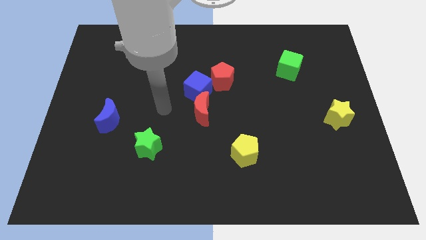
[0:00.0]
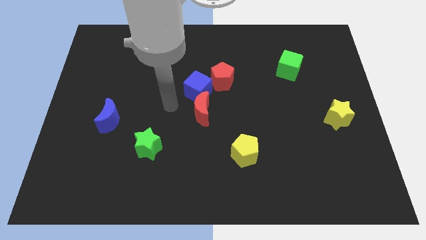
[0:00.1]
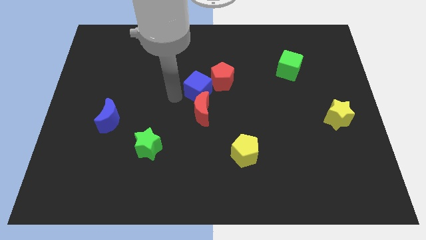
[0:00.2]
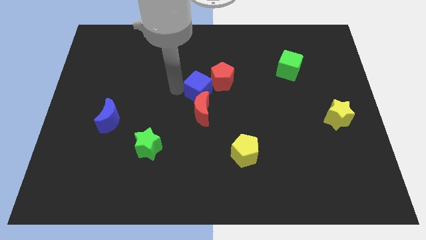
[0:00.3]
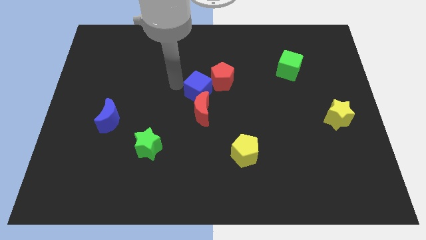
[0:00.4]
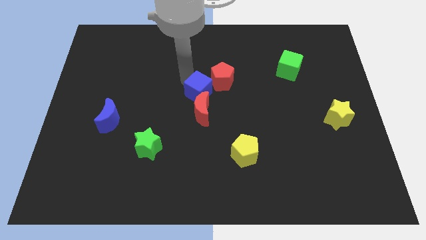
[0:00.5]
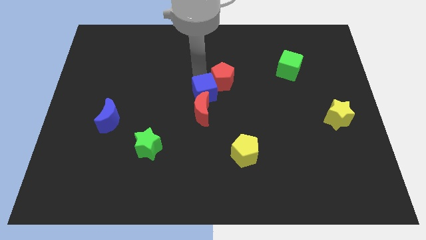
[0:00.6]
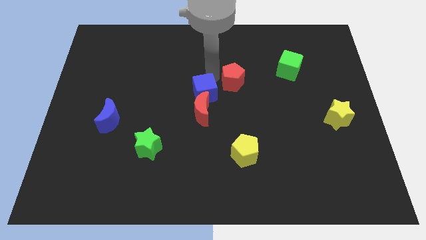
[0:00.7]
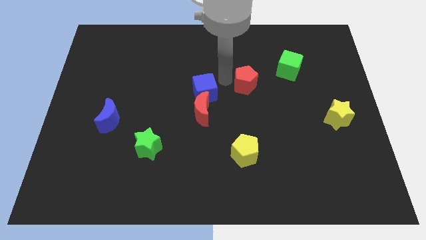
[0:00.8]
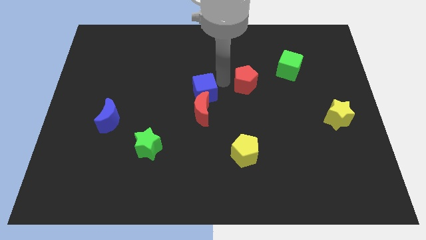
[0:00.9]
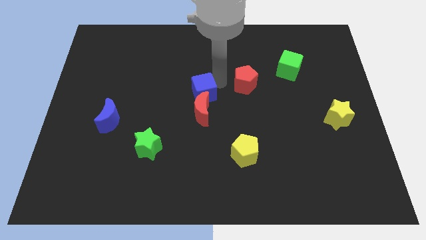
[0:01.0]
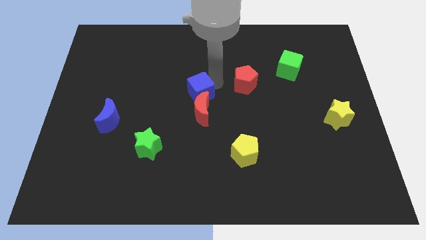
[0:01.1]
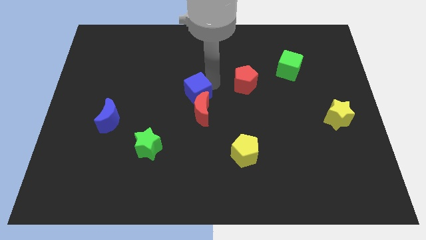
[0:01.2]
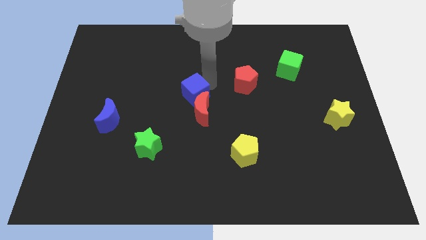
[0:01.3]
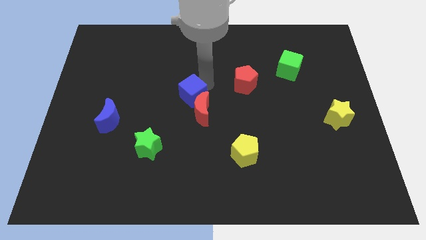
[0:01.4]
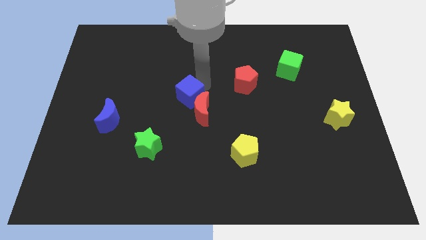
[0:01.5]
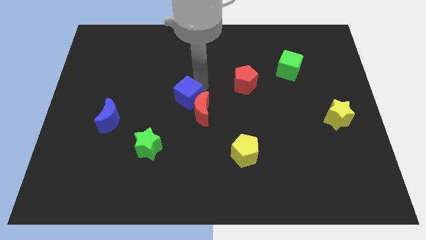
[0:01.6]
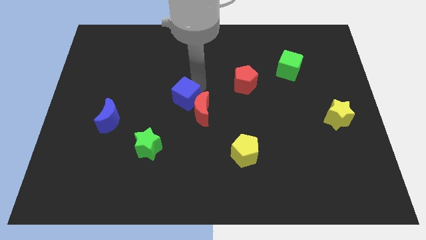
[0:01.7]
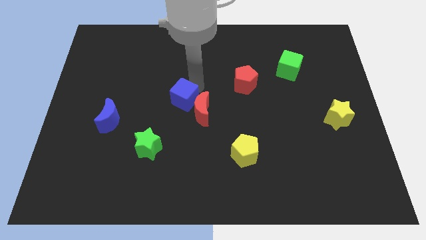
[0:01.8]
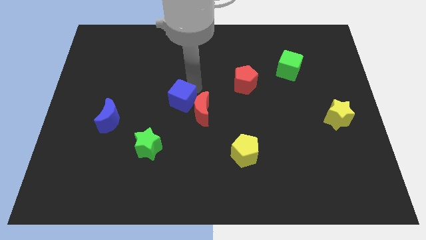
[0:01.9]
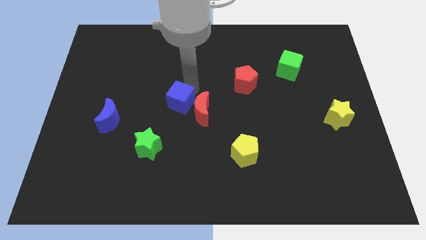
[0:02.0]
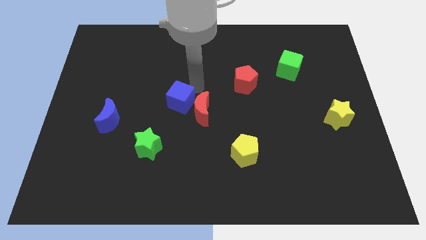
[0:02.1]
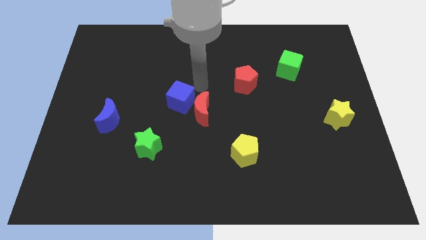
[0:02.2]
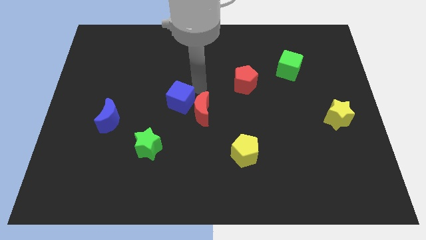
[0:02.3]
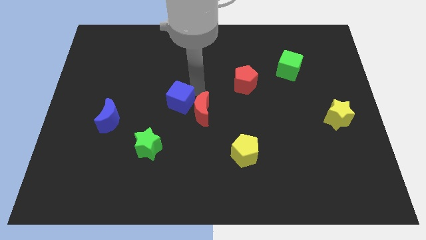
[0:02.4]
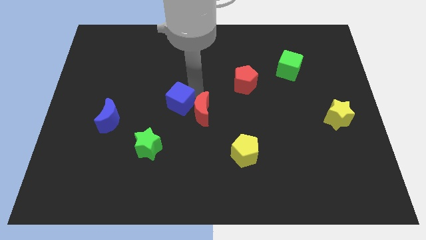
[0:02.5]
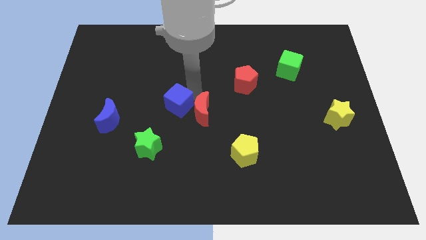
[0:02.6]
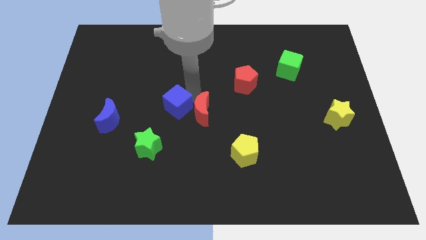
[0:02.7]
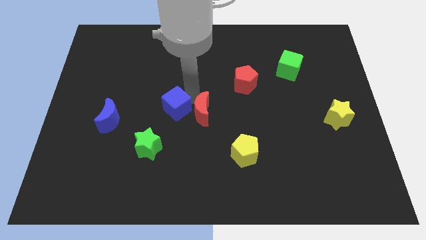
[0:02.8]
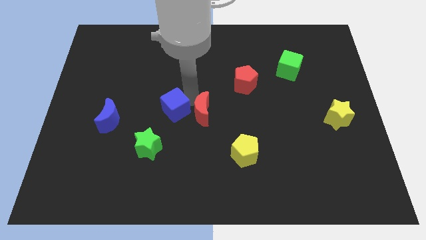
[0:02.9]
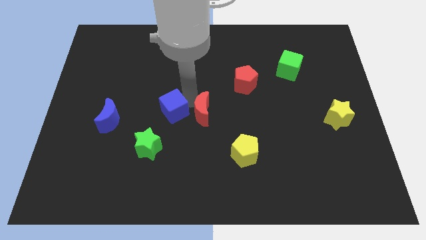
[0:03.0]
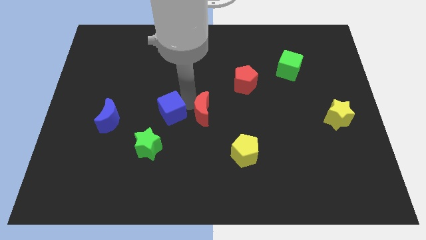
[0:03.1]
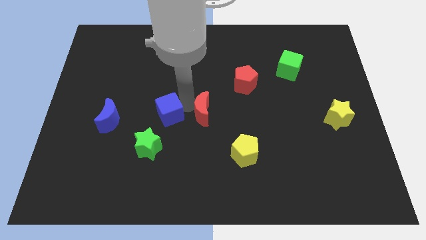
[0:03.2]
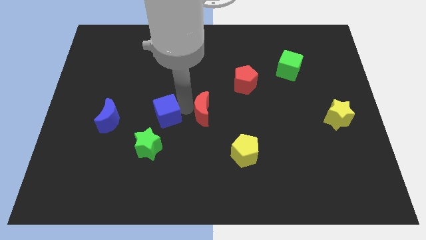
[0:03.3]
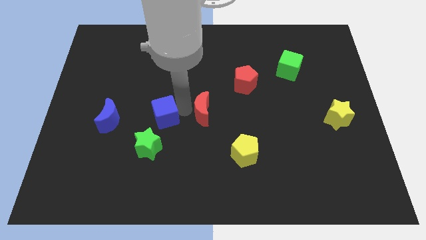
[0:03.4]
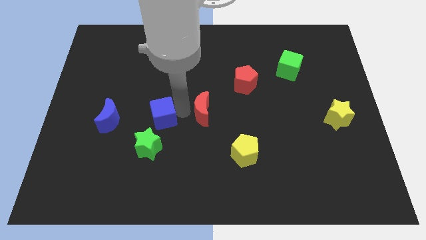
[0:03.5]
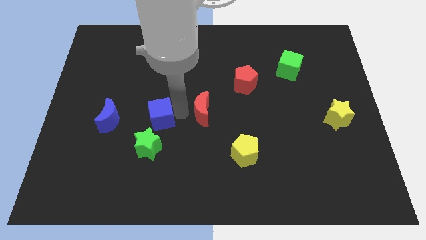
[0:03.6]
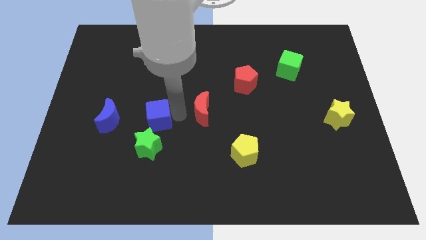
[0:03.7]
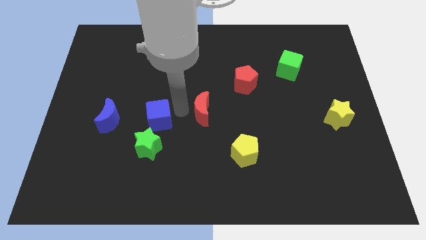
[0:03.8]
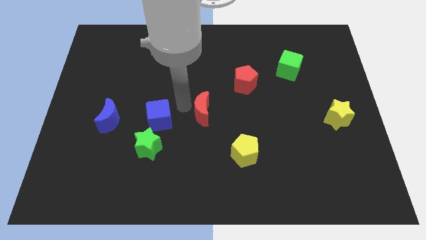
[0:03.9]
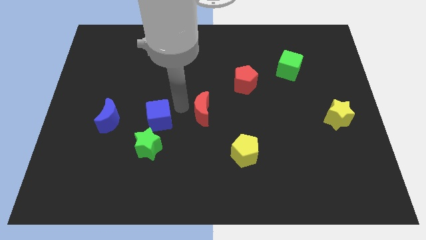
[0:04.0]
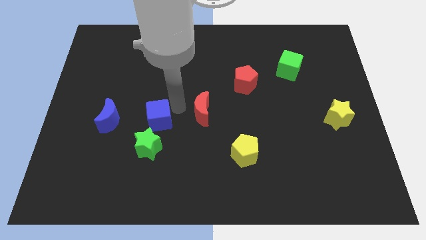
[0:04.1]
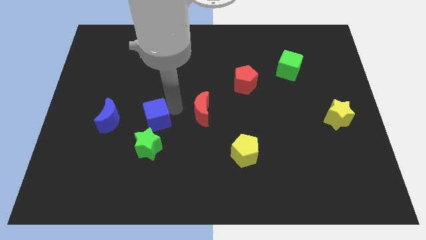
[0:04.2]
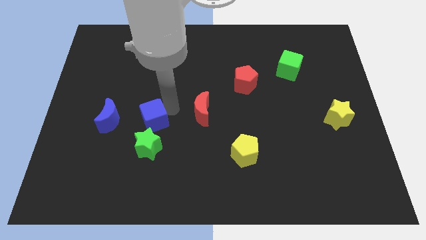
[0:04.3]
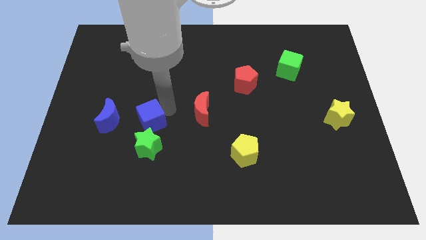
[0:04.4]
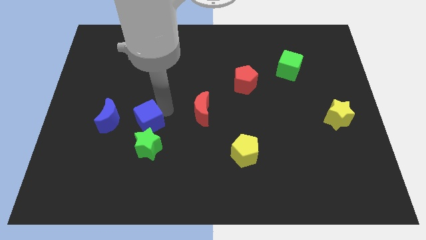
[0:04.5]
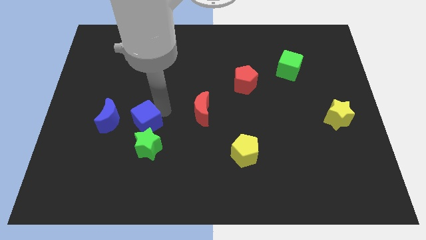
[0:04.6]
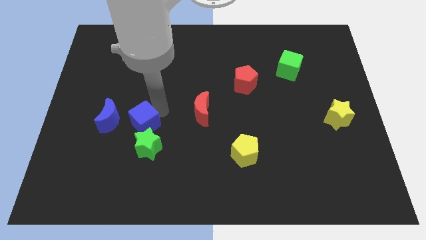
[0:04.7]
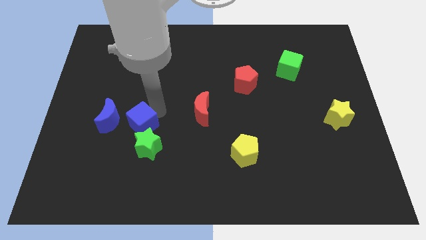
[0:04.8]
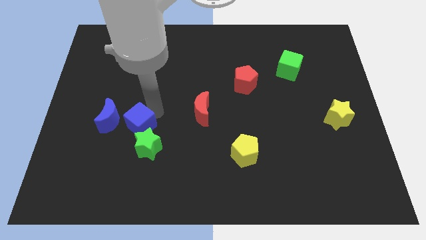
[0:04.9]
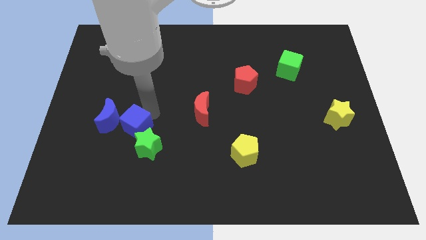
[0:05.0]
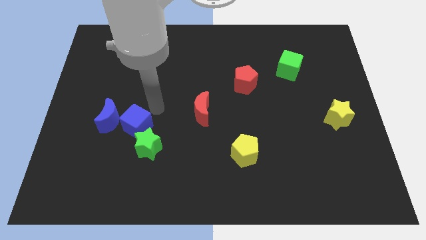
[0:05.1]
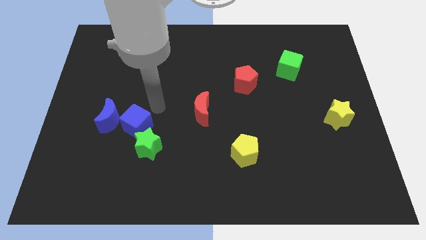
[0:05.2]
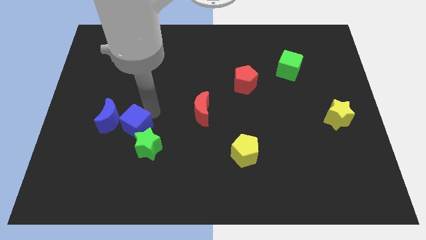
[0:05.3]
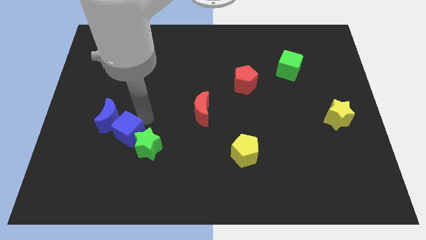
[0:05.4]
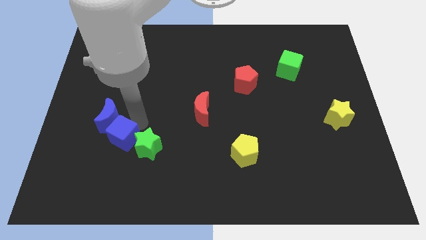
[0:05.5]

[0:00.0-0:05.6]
push the blue cube downwards and then left

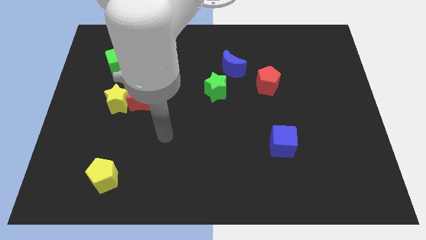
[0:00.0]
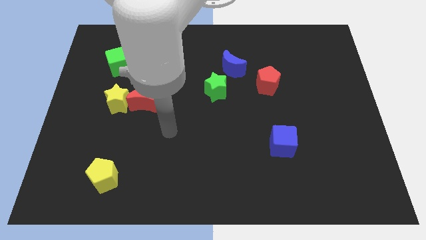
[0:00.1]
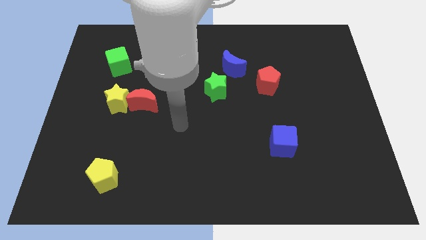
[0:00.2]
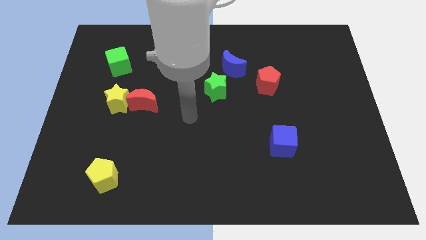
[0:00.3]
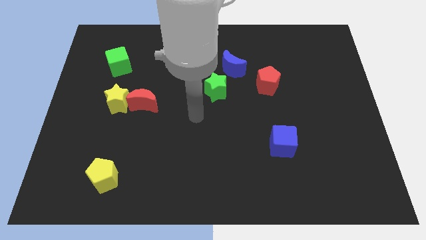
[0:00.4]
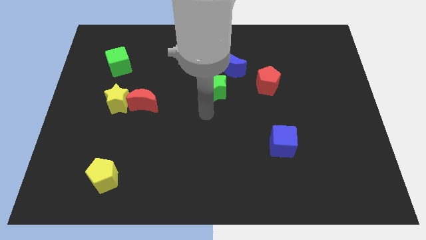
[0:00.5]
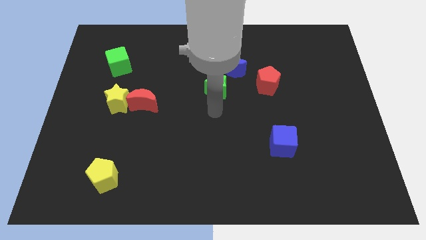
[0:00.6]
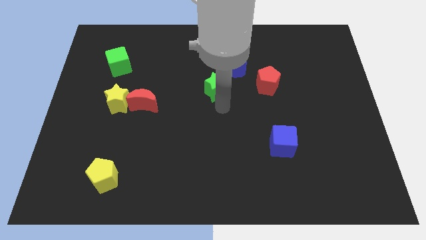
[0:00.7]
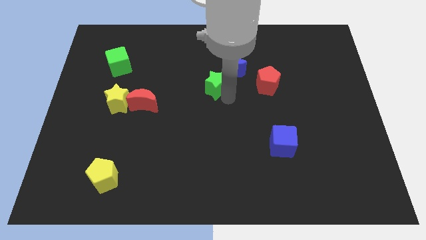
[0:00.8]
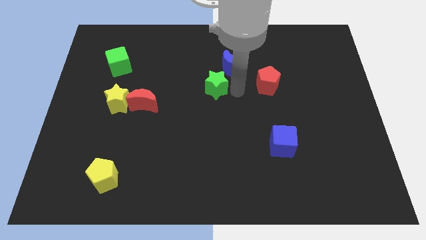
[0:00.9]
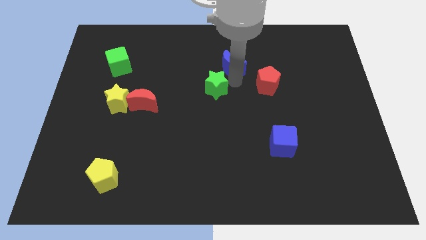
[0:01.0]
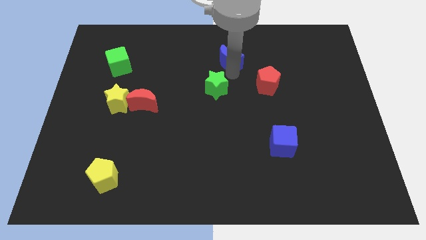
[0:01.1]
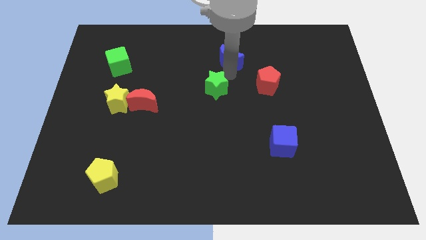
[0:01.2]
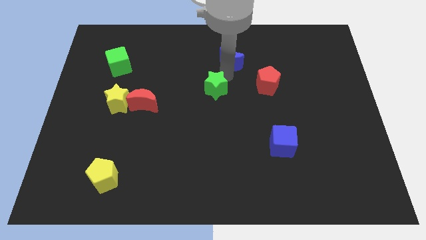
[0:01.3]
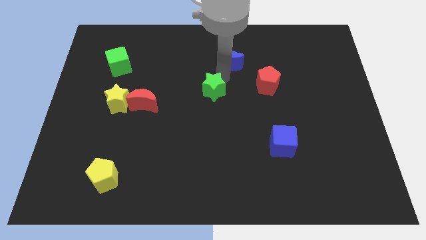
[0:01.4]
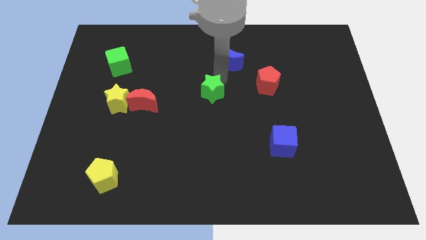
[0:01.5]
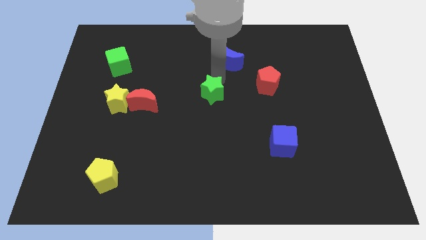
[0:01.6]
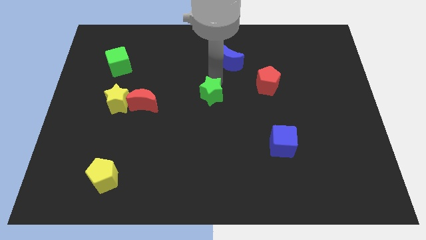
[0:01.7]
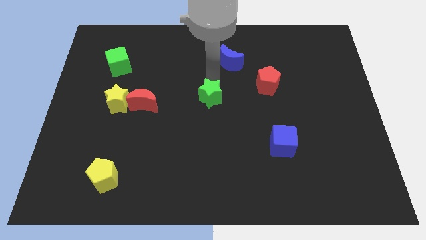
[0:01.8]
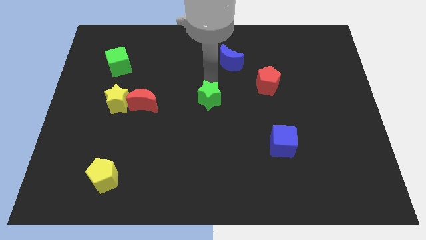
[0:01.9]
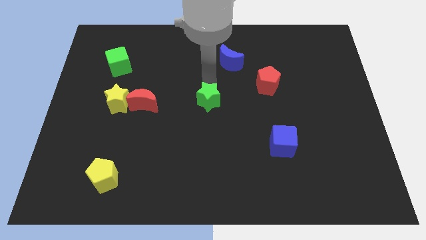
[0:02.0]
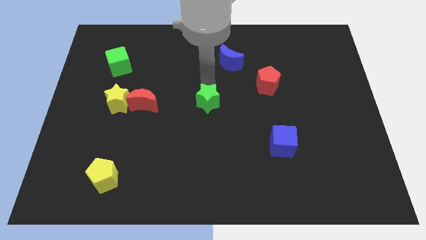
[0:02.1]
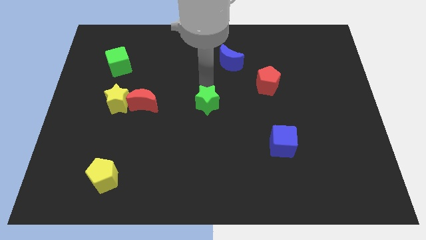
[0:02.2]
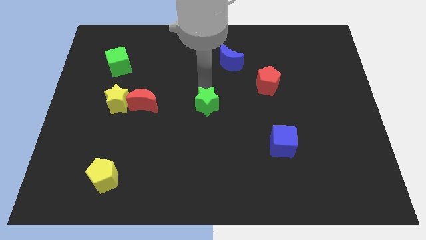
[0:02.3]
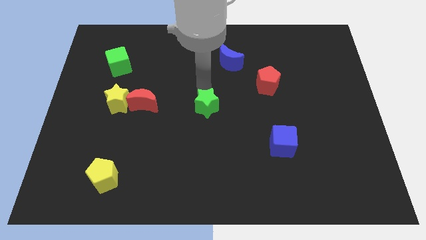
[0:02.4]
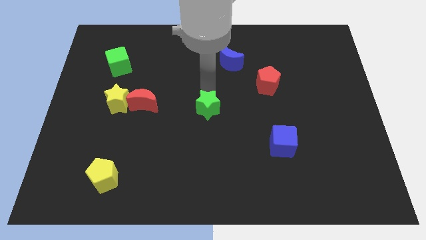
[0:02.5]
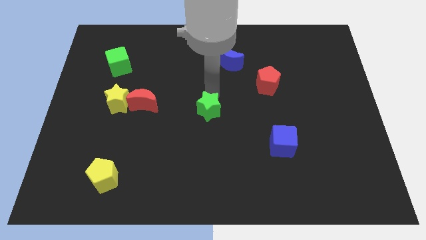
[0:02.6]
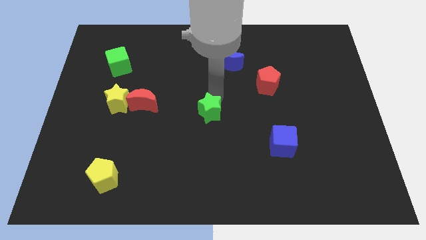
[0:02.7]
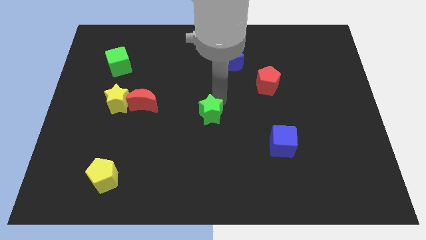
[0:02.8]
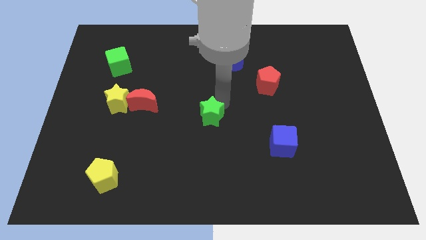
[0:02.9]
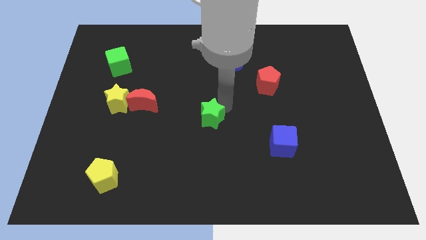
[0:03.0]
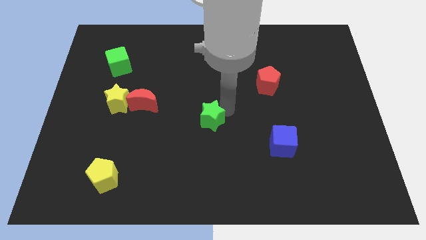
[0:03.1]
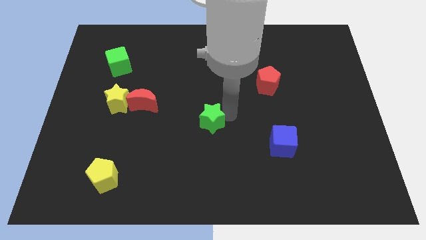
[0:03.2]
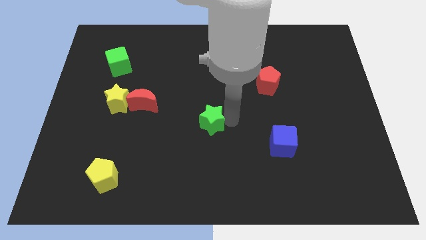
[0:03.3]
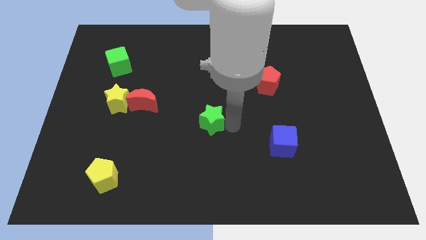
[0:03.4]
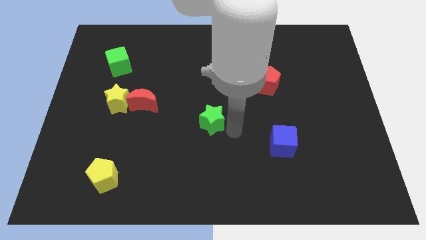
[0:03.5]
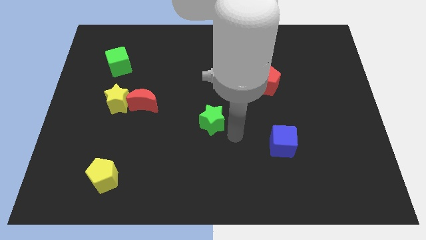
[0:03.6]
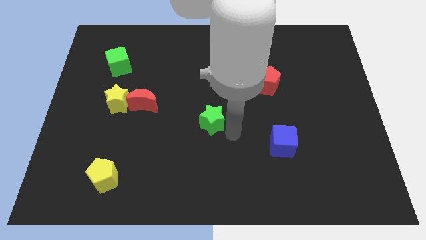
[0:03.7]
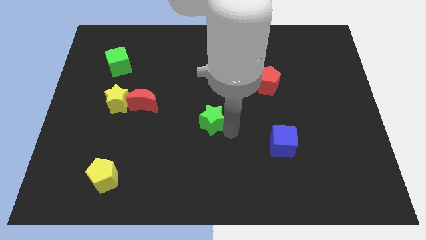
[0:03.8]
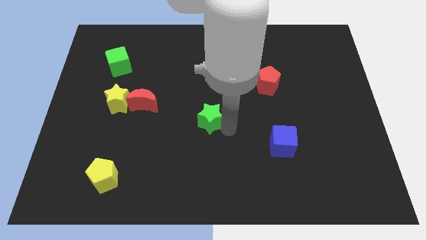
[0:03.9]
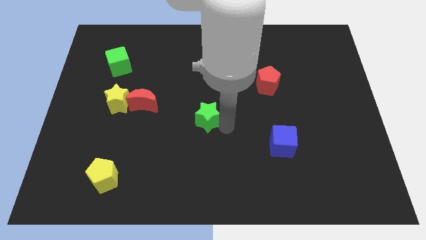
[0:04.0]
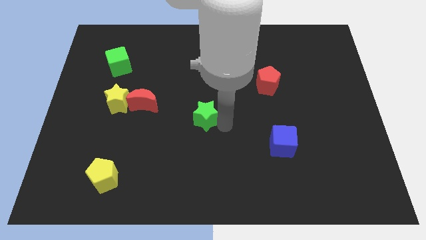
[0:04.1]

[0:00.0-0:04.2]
slide the green star slightly downwards and then to the left
